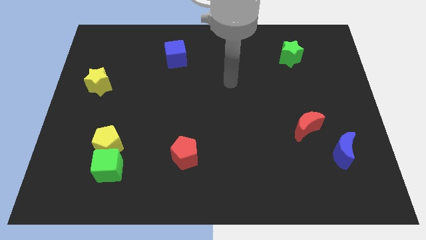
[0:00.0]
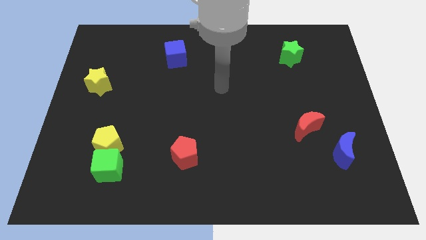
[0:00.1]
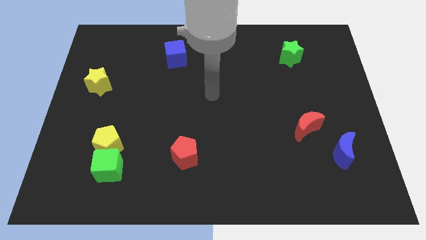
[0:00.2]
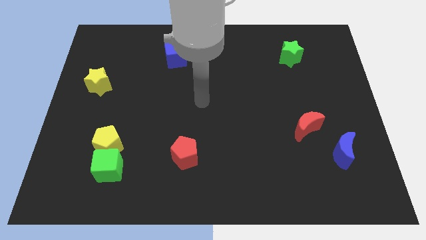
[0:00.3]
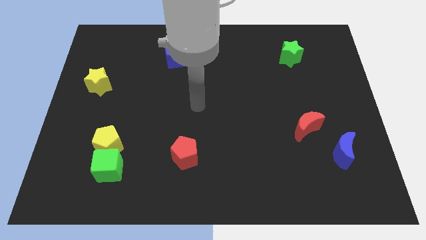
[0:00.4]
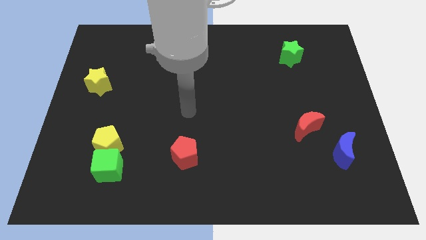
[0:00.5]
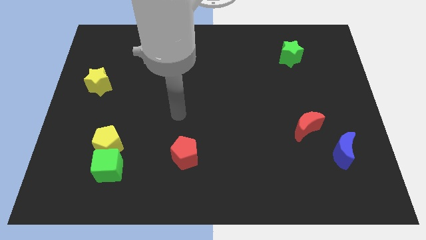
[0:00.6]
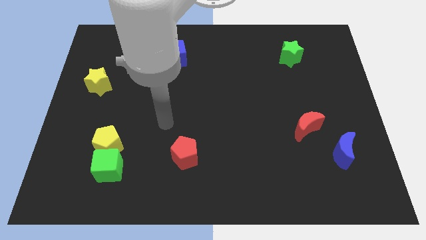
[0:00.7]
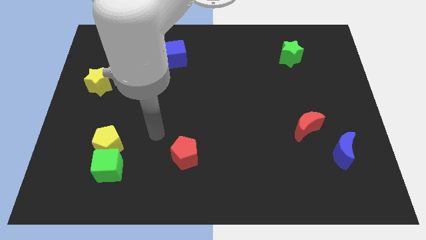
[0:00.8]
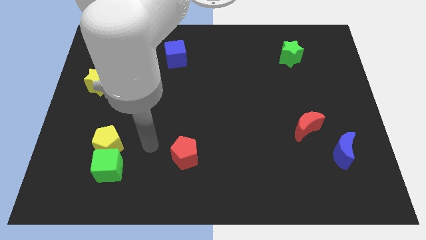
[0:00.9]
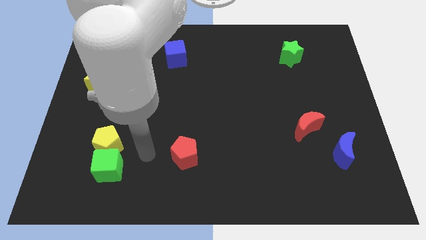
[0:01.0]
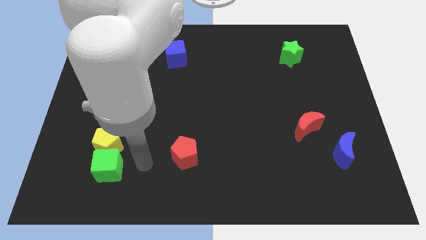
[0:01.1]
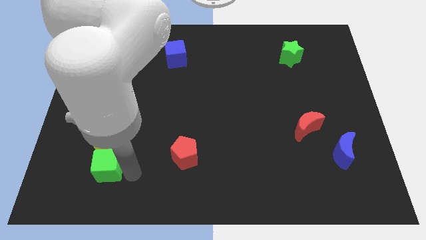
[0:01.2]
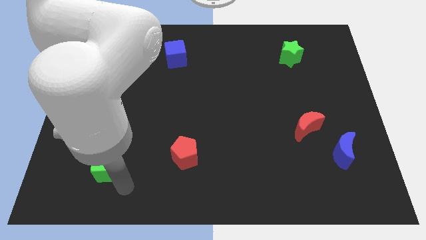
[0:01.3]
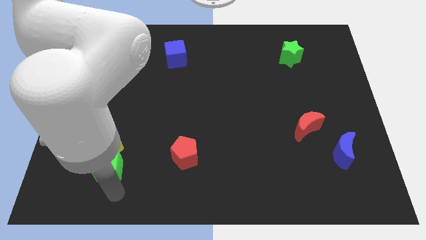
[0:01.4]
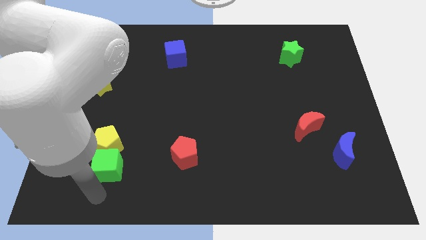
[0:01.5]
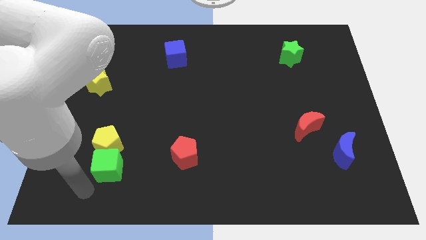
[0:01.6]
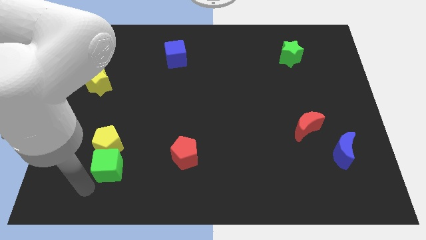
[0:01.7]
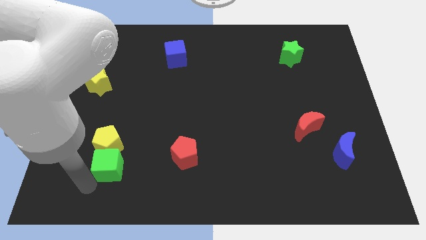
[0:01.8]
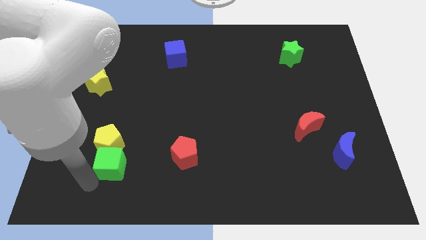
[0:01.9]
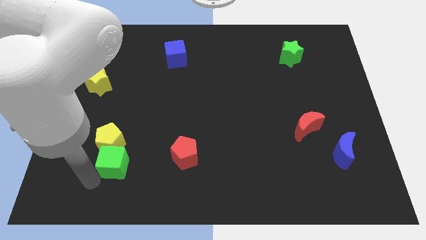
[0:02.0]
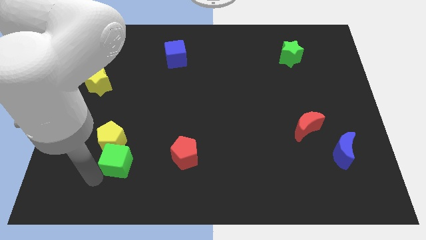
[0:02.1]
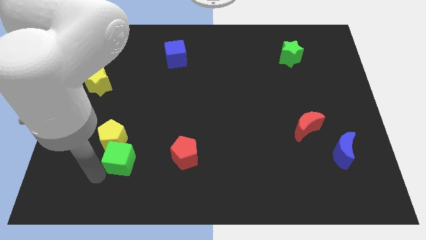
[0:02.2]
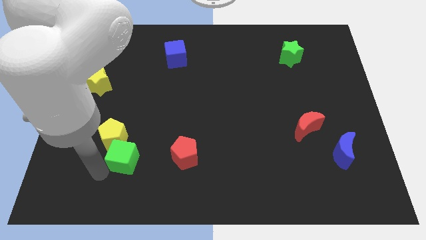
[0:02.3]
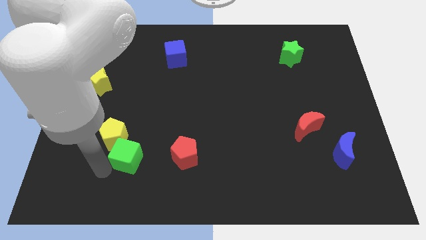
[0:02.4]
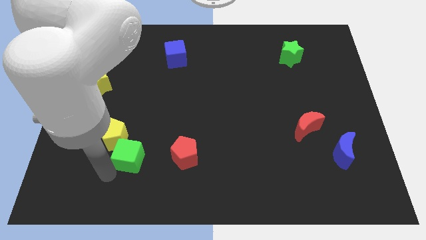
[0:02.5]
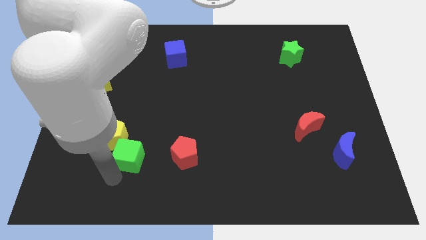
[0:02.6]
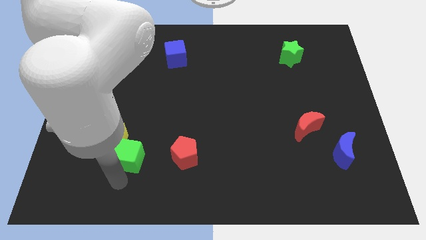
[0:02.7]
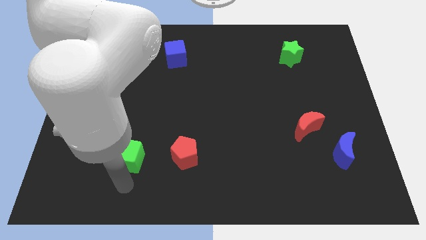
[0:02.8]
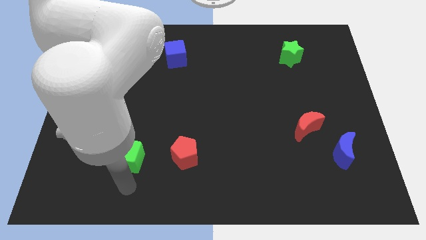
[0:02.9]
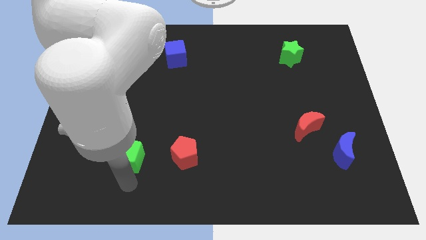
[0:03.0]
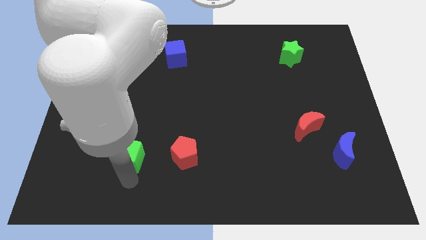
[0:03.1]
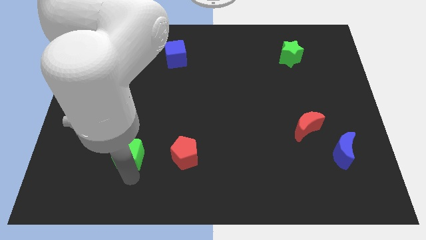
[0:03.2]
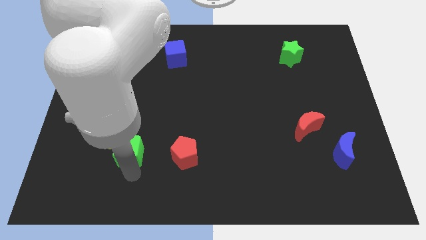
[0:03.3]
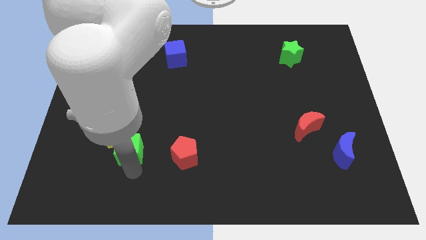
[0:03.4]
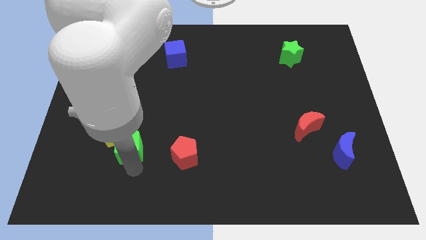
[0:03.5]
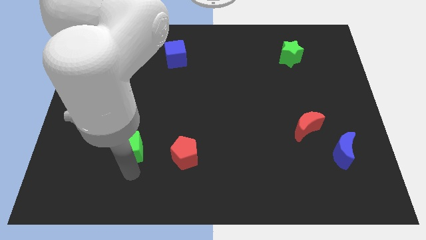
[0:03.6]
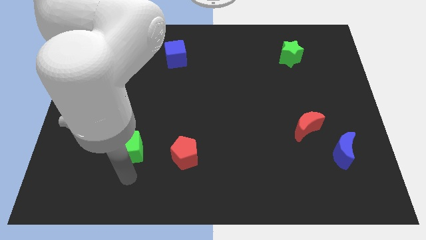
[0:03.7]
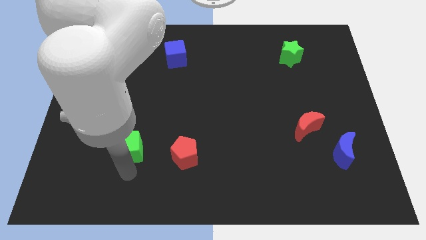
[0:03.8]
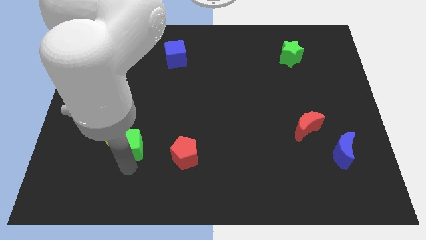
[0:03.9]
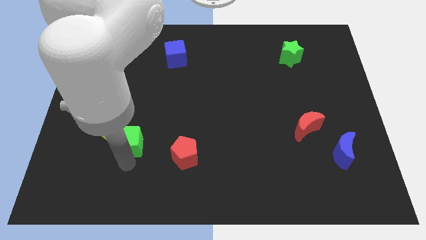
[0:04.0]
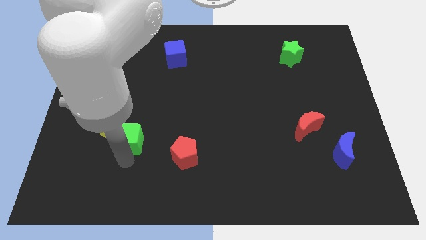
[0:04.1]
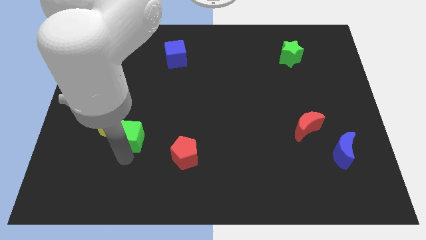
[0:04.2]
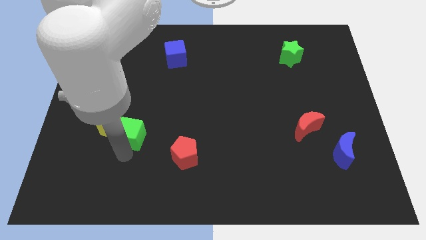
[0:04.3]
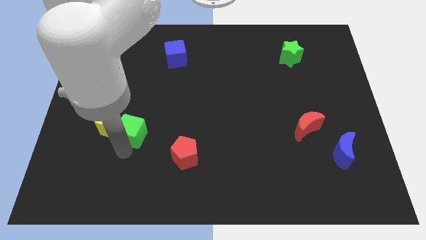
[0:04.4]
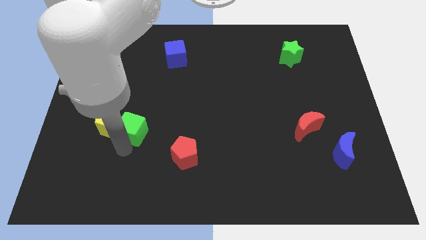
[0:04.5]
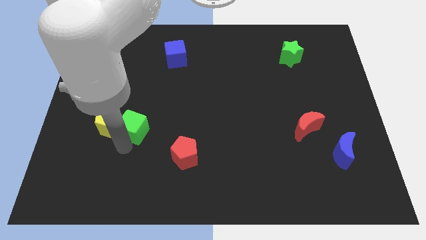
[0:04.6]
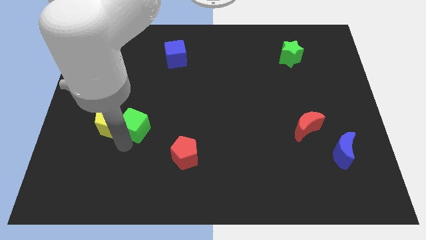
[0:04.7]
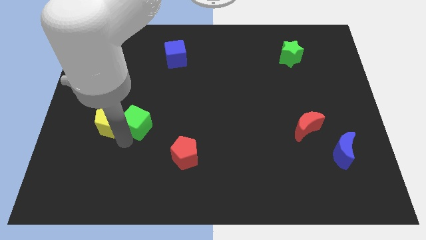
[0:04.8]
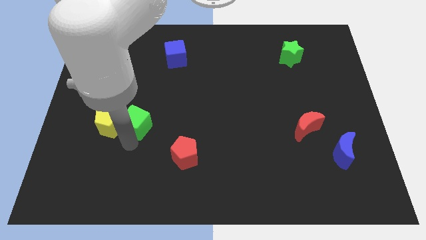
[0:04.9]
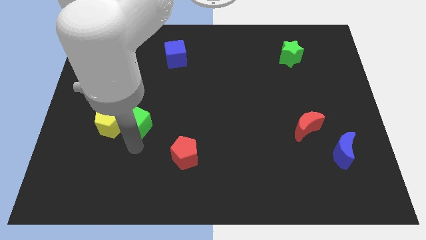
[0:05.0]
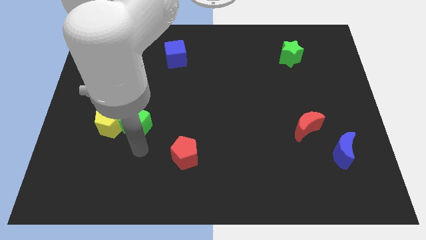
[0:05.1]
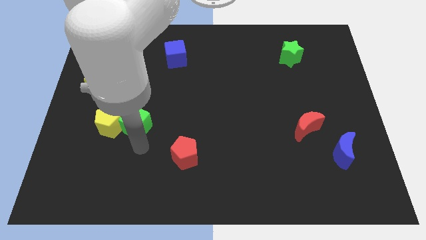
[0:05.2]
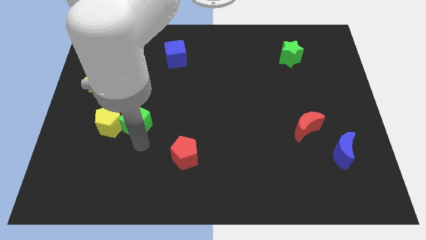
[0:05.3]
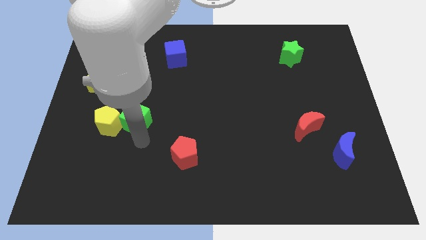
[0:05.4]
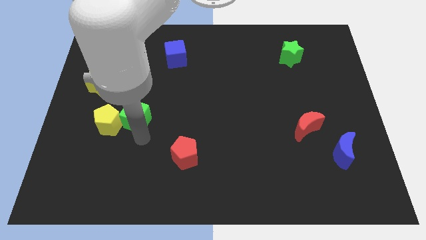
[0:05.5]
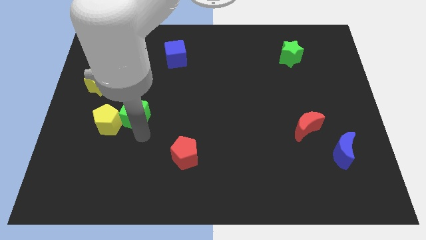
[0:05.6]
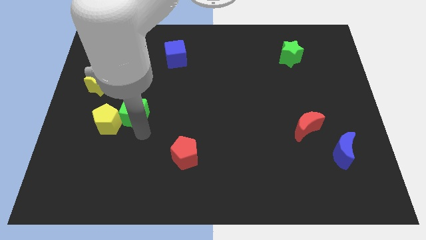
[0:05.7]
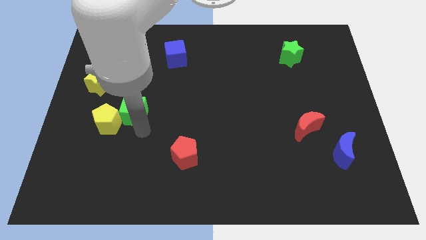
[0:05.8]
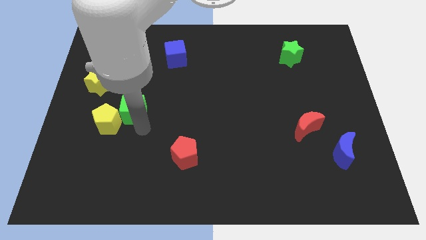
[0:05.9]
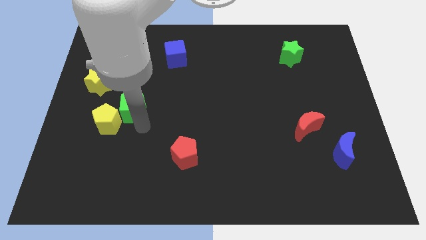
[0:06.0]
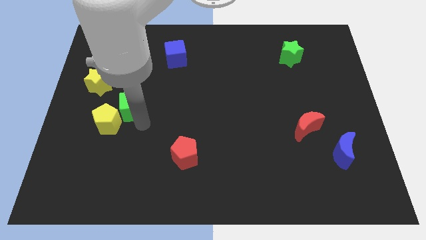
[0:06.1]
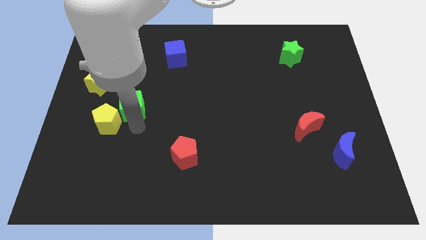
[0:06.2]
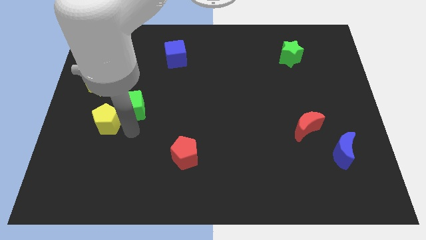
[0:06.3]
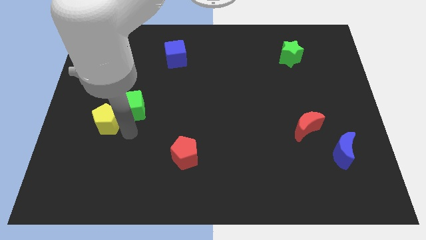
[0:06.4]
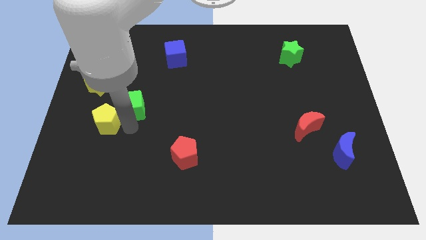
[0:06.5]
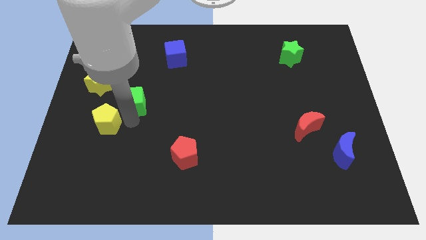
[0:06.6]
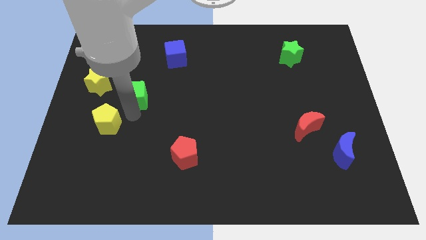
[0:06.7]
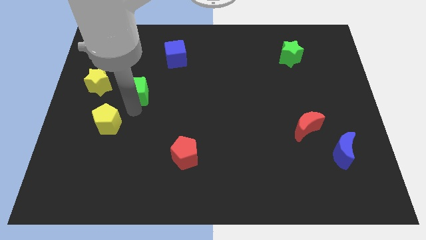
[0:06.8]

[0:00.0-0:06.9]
move the green cube up

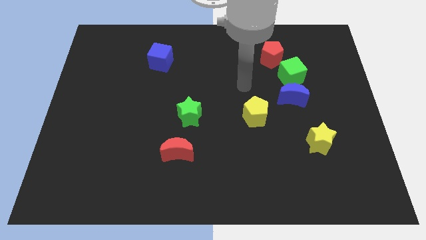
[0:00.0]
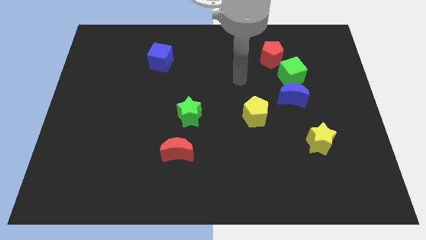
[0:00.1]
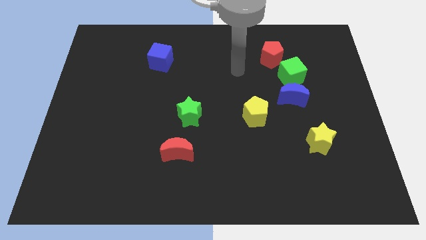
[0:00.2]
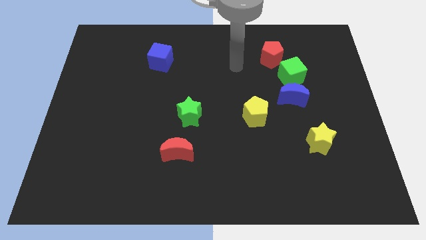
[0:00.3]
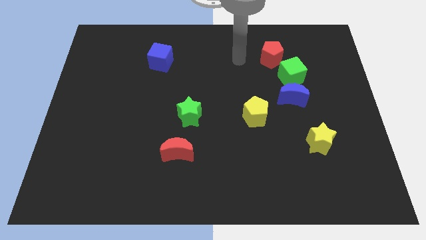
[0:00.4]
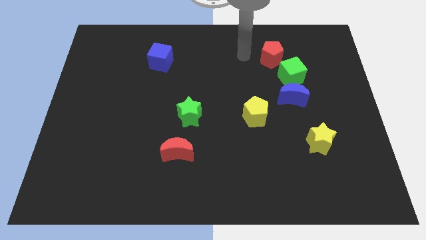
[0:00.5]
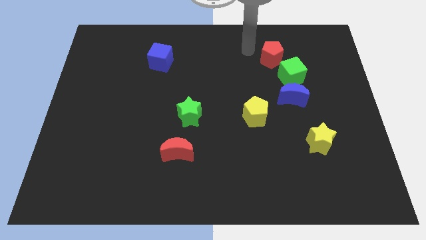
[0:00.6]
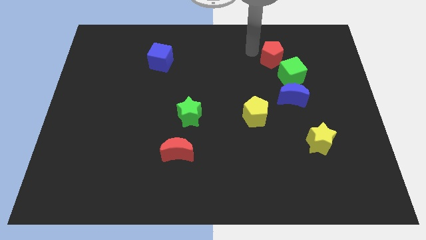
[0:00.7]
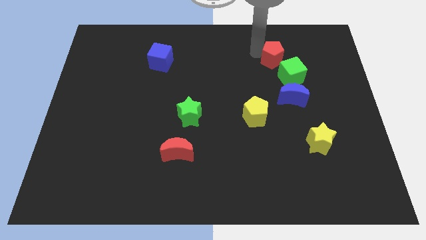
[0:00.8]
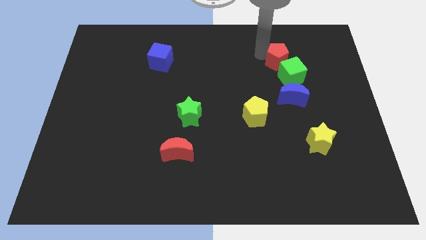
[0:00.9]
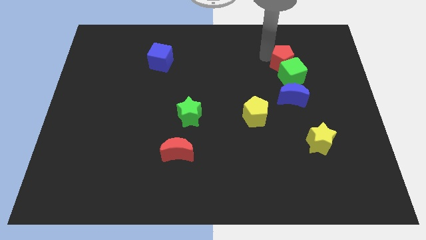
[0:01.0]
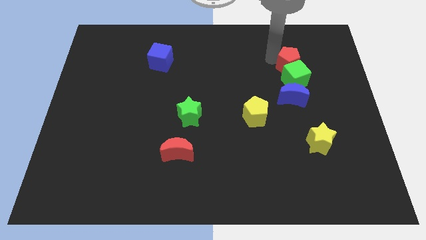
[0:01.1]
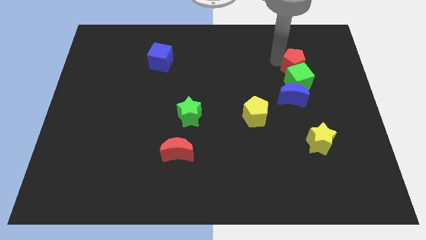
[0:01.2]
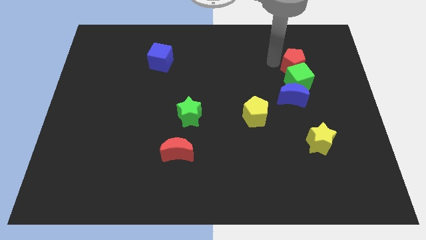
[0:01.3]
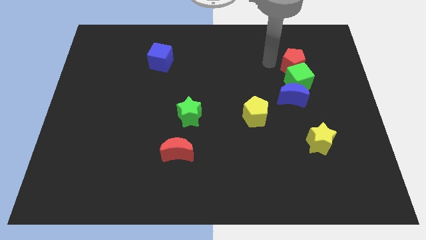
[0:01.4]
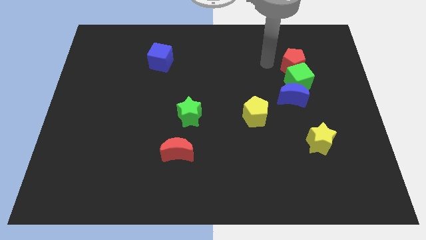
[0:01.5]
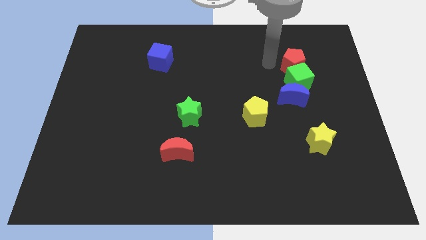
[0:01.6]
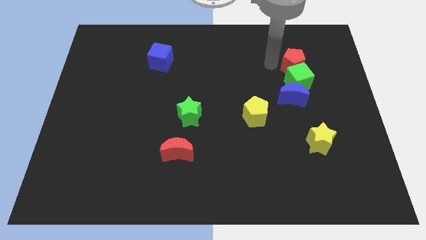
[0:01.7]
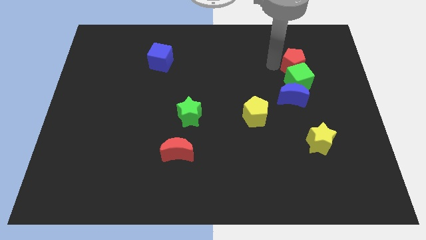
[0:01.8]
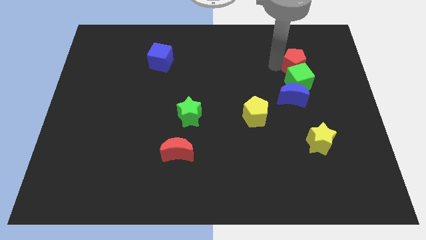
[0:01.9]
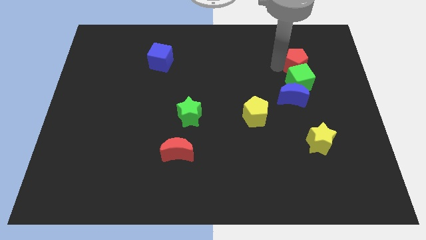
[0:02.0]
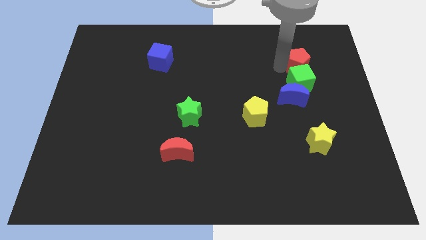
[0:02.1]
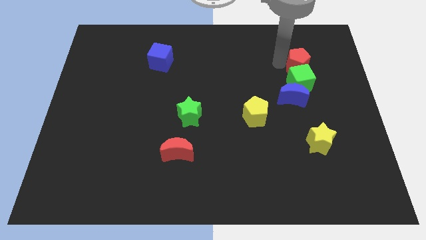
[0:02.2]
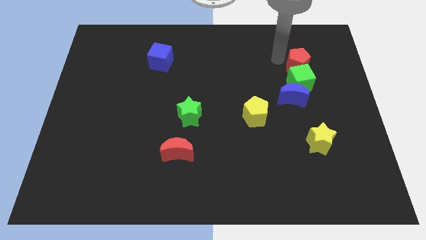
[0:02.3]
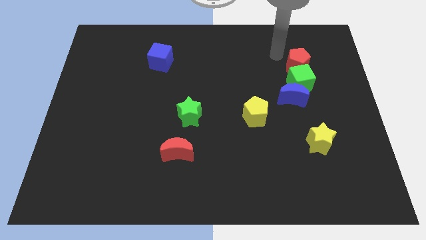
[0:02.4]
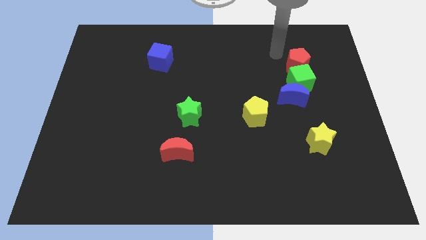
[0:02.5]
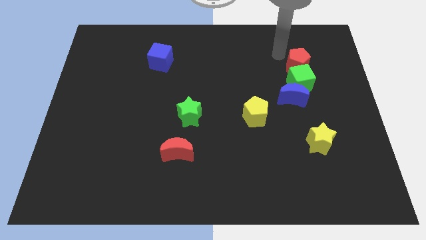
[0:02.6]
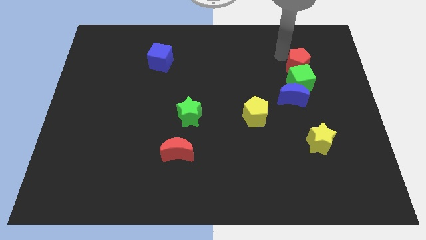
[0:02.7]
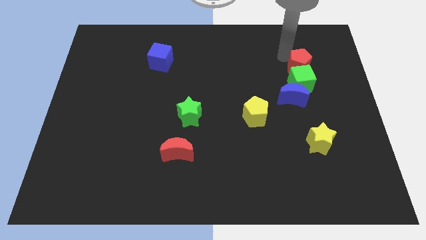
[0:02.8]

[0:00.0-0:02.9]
move the red pentagon downwards and to the right diagonally a little
